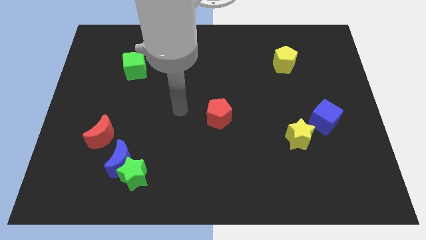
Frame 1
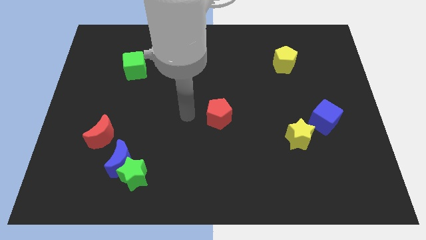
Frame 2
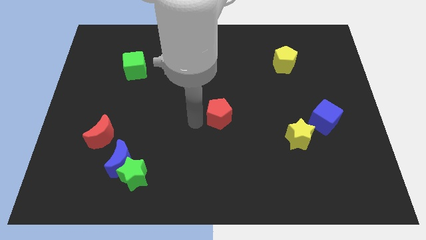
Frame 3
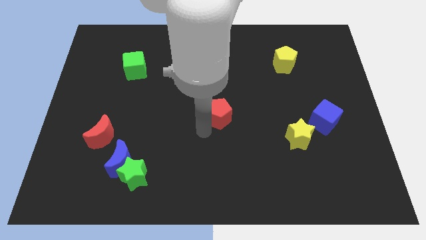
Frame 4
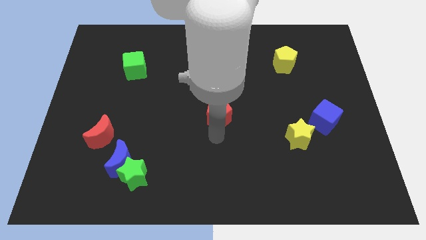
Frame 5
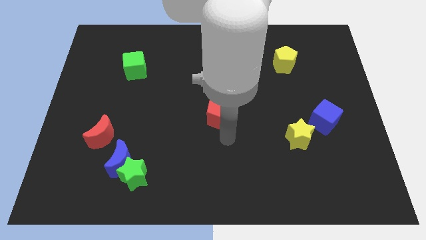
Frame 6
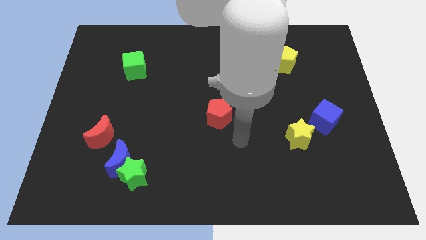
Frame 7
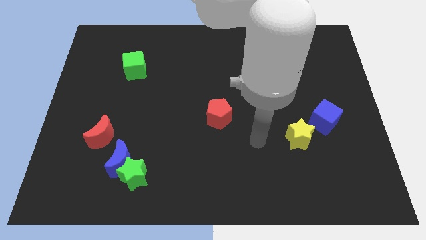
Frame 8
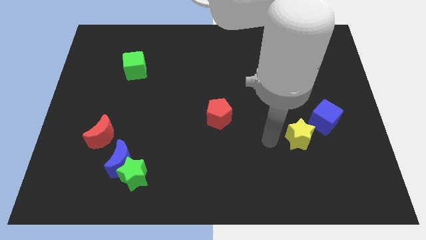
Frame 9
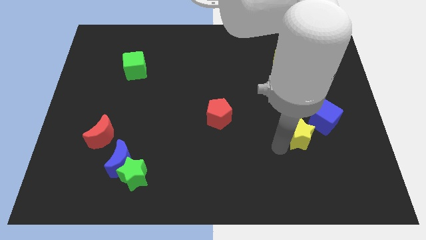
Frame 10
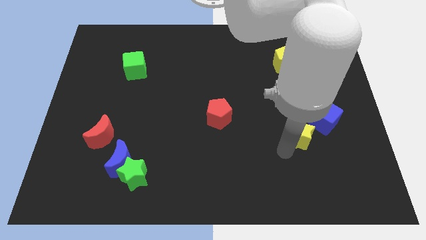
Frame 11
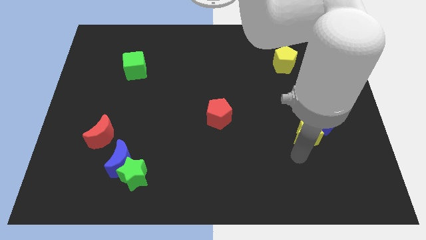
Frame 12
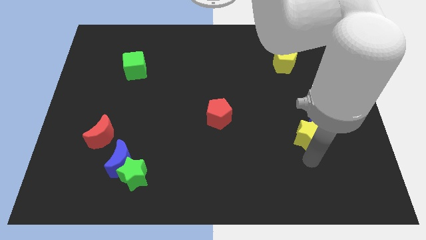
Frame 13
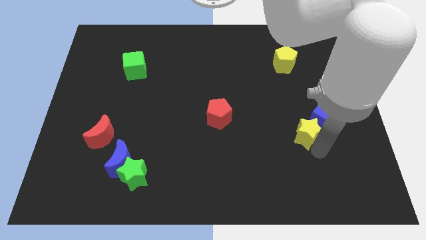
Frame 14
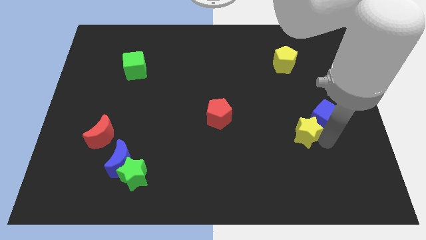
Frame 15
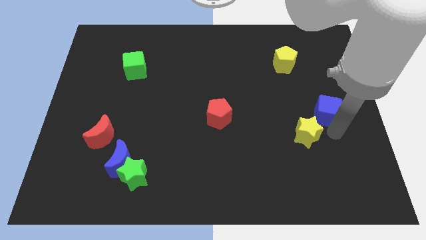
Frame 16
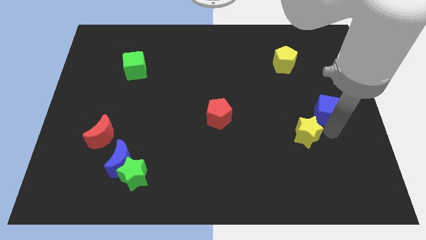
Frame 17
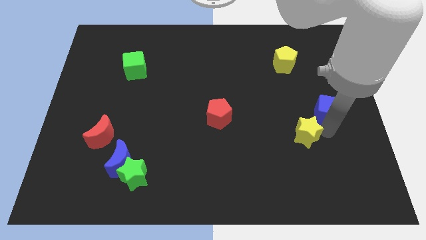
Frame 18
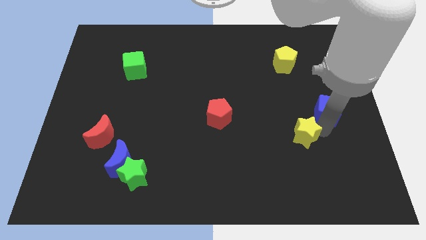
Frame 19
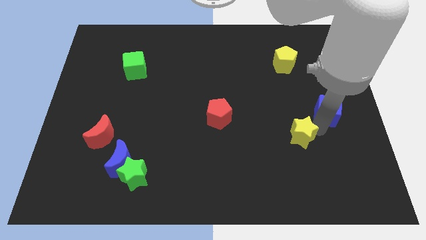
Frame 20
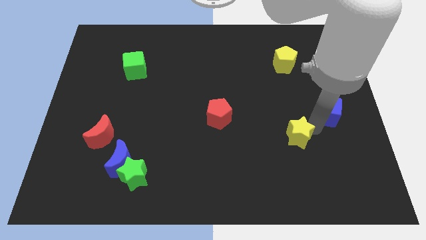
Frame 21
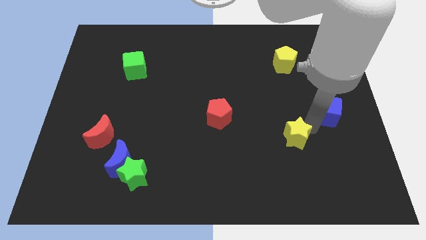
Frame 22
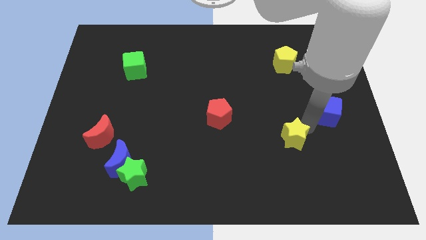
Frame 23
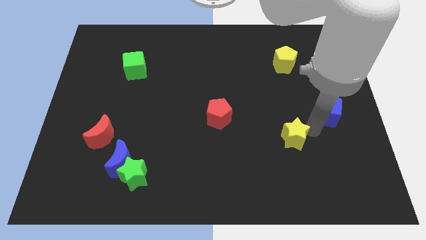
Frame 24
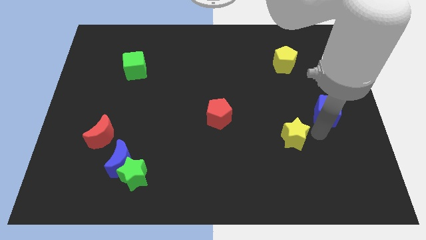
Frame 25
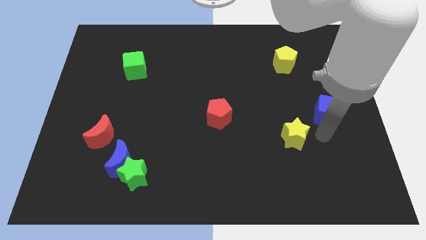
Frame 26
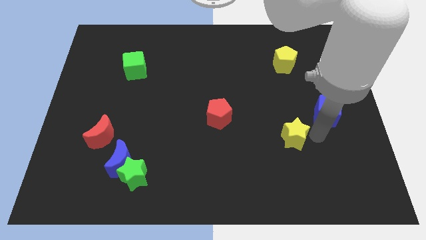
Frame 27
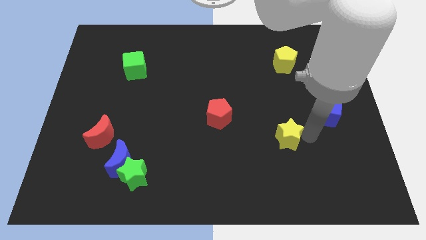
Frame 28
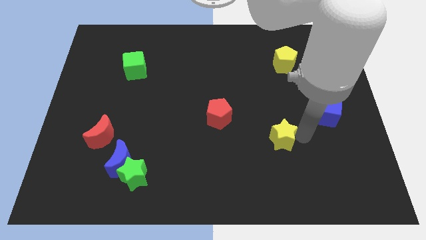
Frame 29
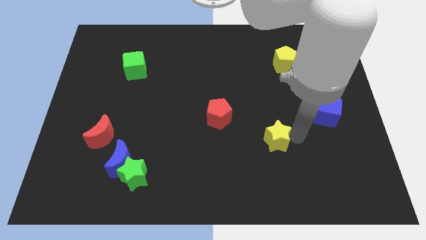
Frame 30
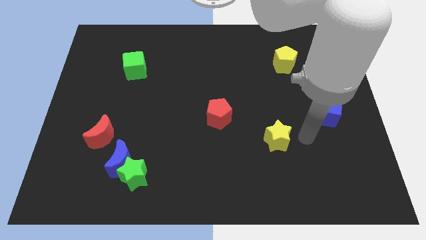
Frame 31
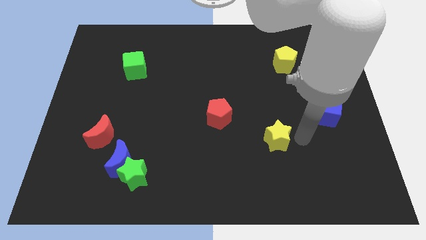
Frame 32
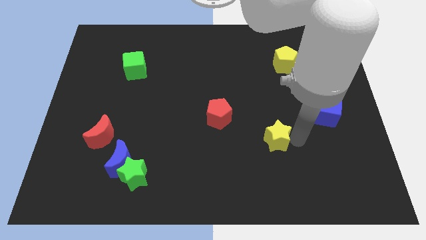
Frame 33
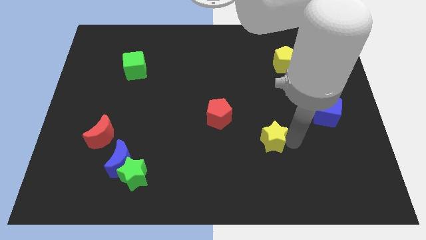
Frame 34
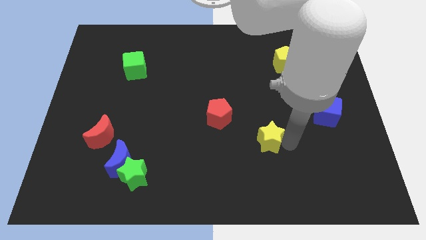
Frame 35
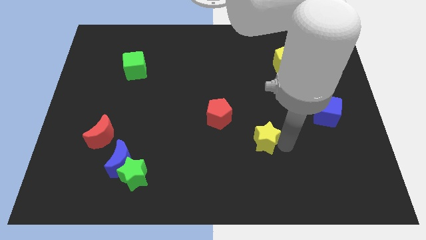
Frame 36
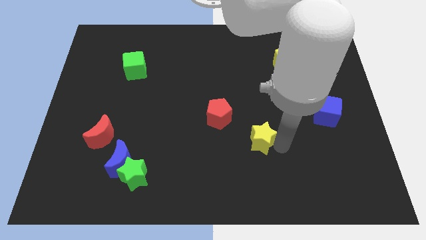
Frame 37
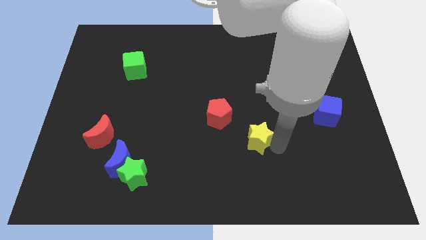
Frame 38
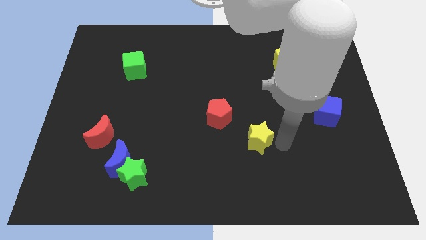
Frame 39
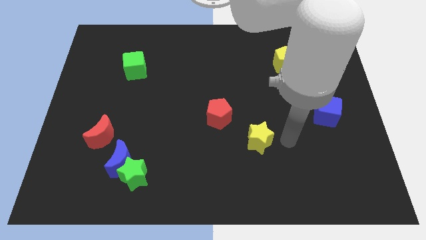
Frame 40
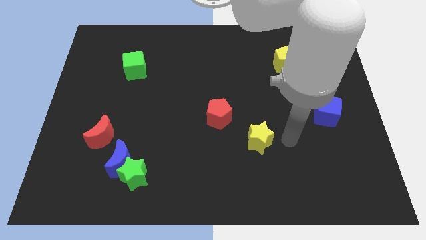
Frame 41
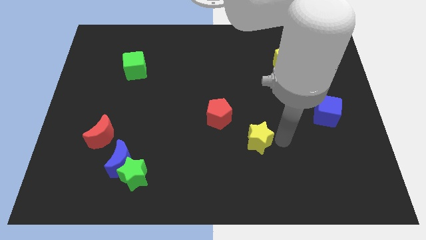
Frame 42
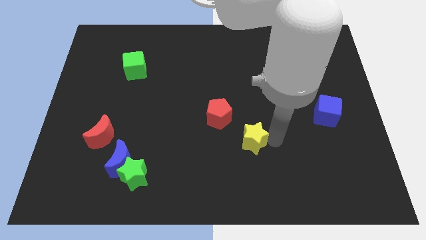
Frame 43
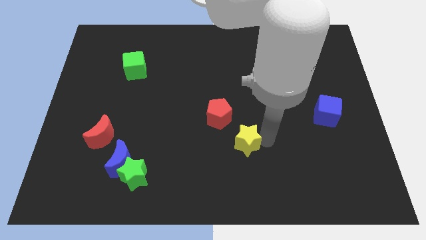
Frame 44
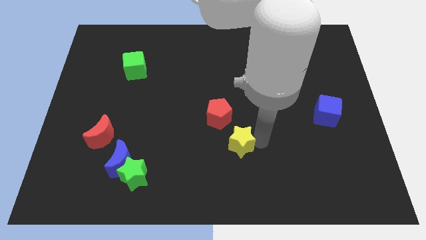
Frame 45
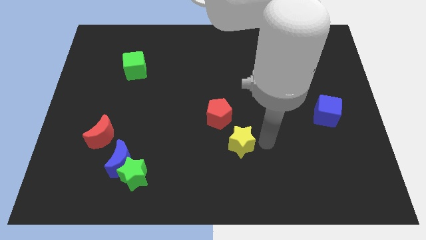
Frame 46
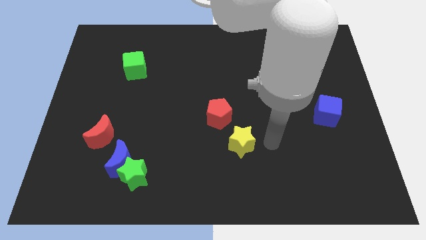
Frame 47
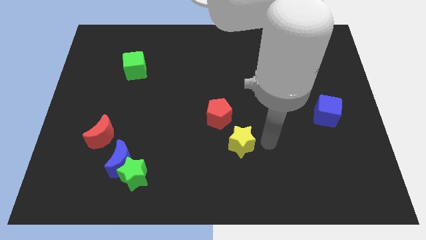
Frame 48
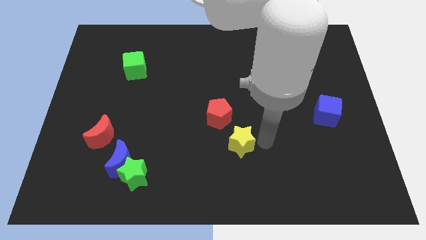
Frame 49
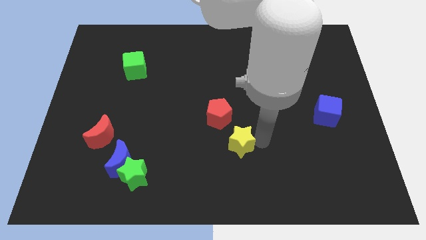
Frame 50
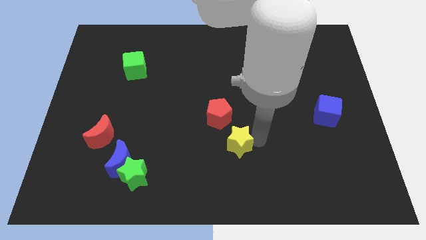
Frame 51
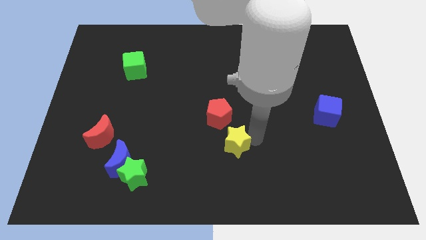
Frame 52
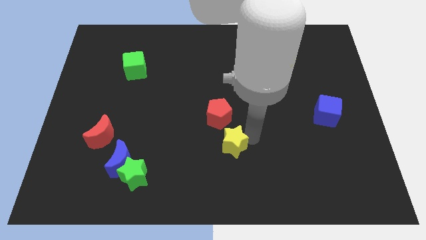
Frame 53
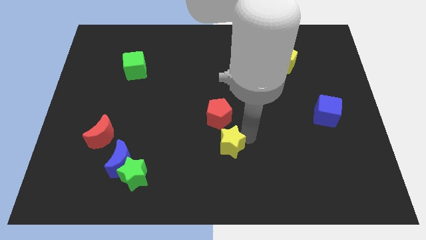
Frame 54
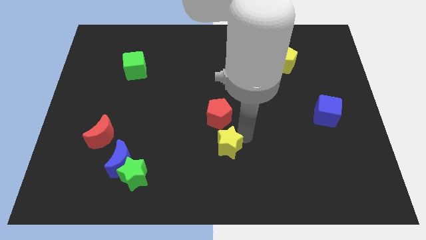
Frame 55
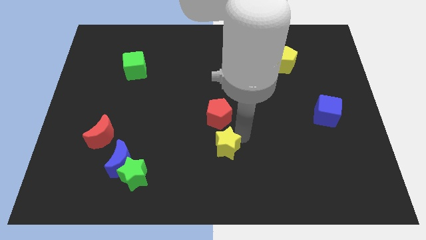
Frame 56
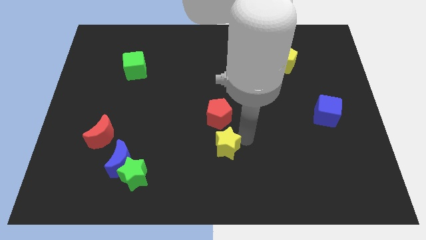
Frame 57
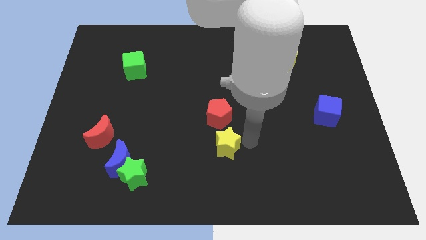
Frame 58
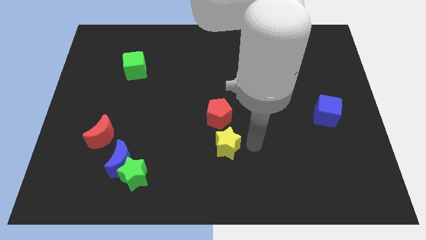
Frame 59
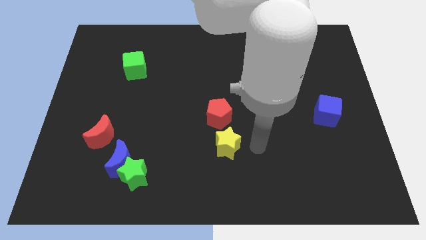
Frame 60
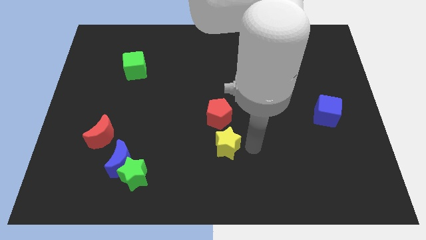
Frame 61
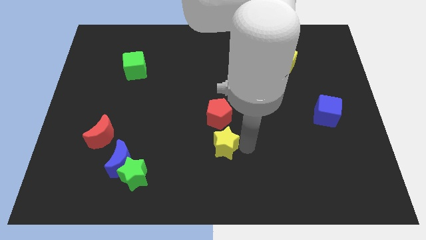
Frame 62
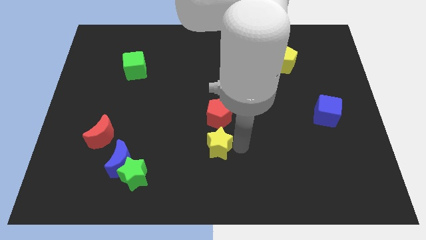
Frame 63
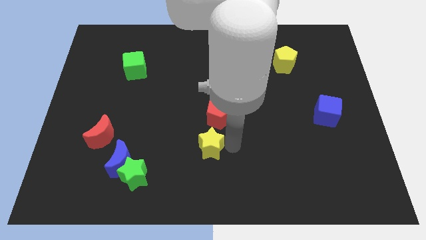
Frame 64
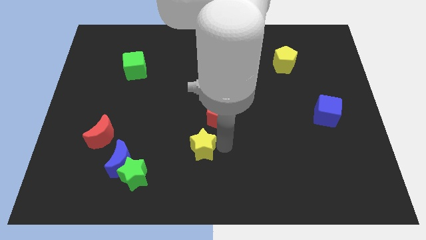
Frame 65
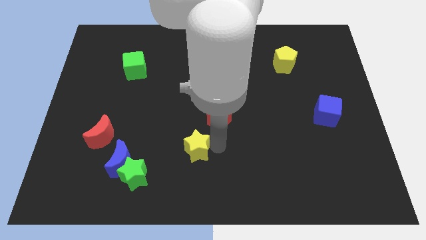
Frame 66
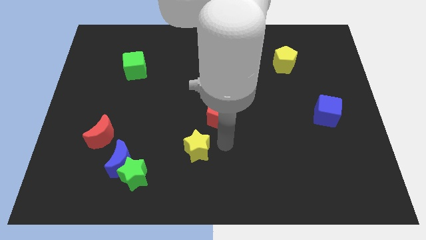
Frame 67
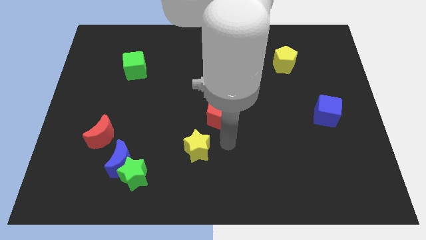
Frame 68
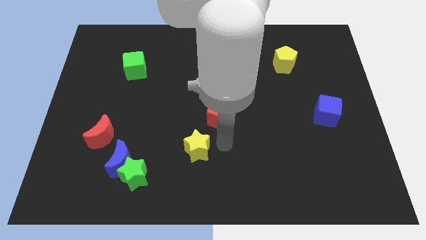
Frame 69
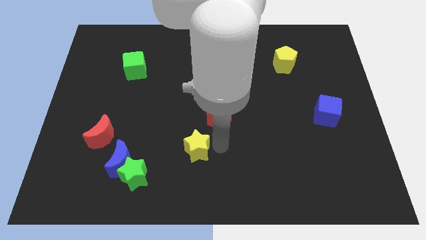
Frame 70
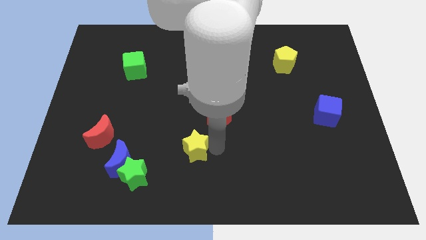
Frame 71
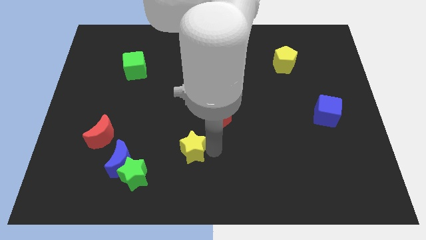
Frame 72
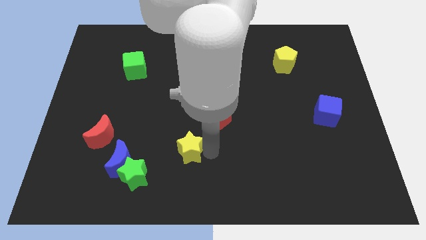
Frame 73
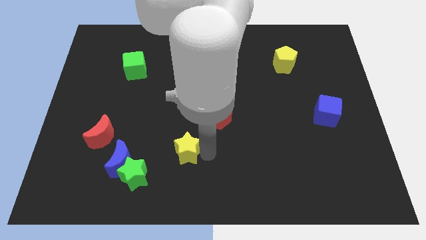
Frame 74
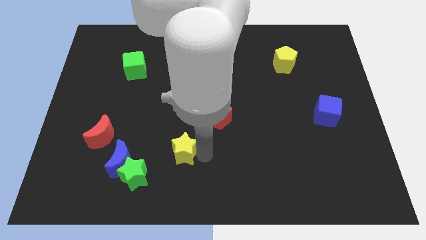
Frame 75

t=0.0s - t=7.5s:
put the yellow star diagonally up and to the right of the green star
